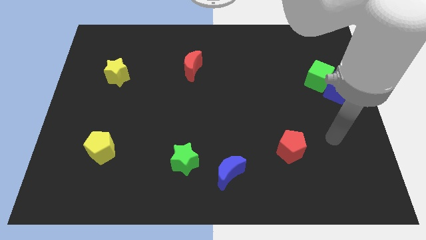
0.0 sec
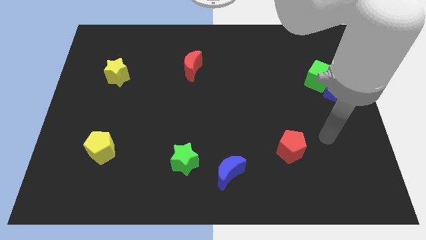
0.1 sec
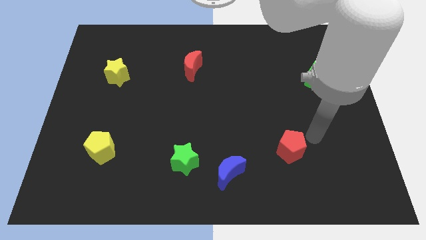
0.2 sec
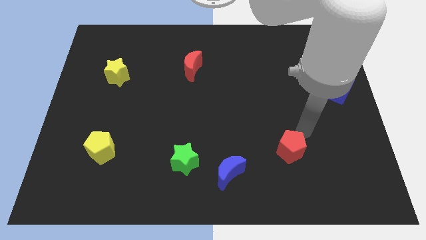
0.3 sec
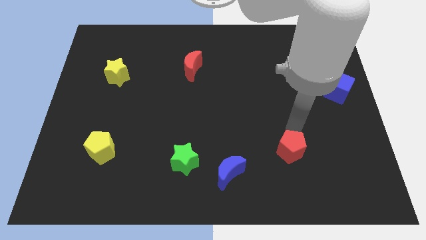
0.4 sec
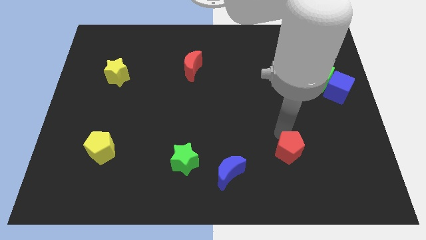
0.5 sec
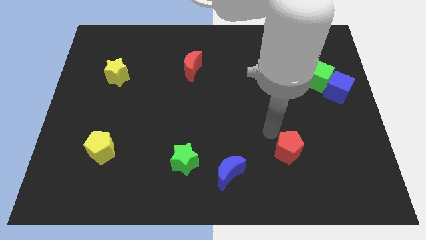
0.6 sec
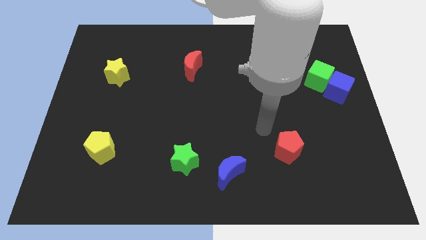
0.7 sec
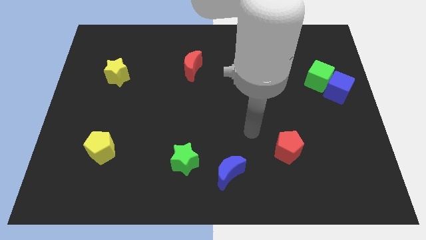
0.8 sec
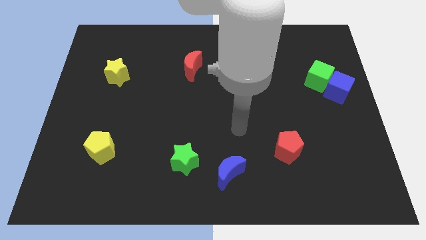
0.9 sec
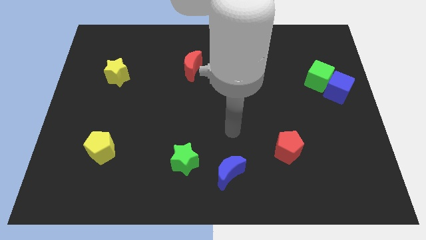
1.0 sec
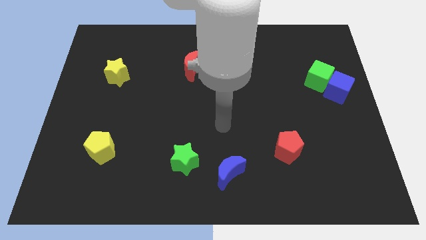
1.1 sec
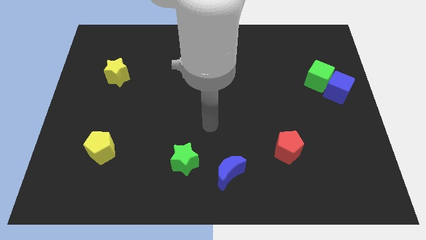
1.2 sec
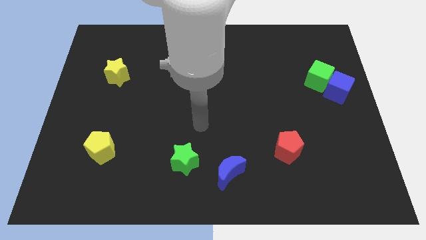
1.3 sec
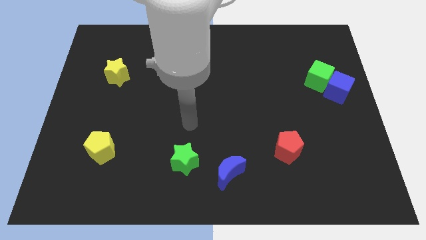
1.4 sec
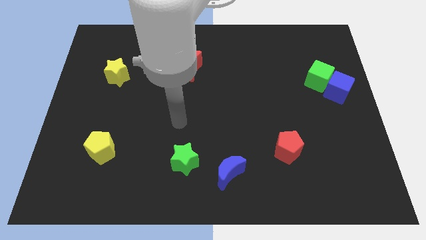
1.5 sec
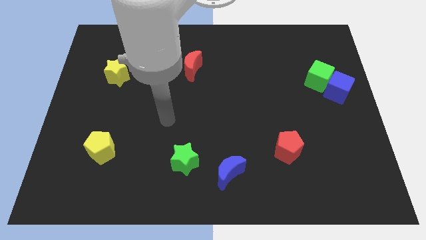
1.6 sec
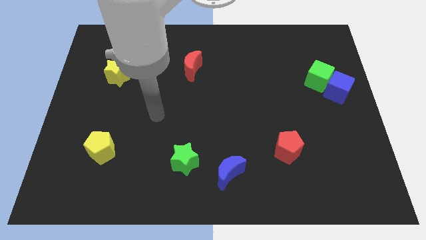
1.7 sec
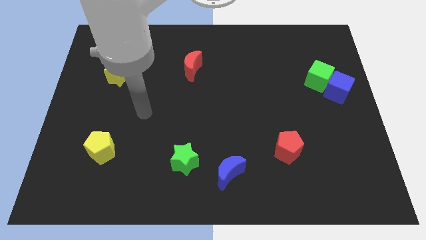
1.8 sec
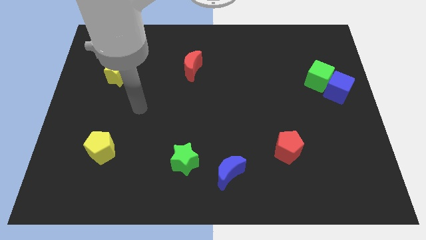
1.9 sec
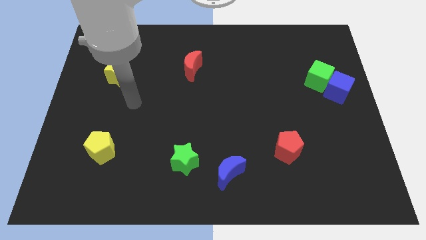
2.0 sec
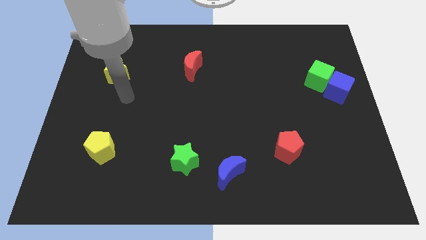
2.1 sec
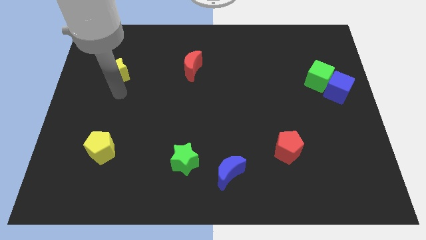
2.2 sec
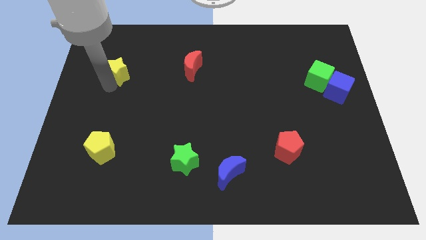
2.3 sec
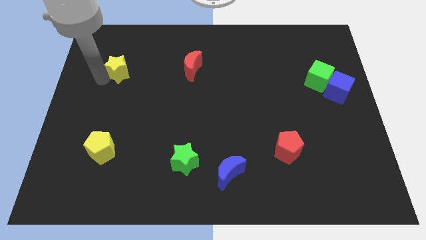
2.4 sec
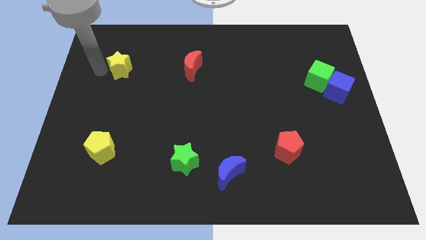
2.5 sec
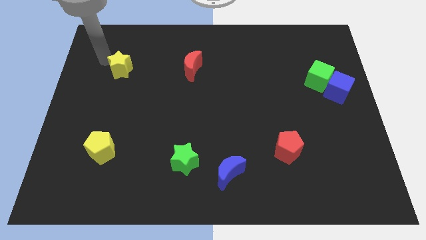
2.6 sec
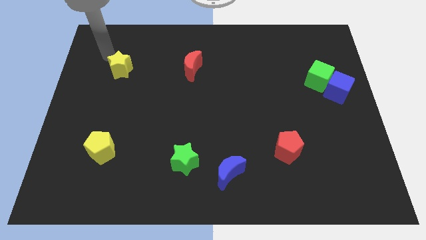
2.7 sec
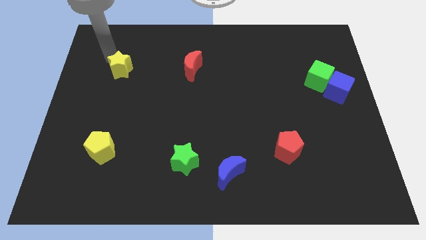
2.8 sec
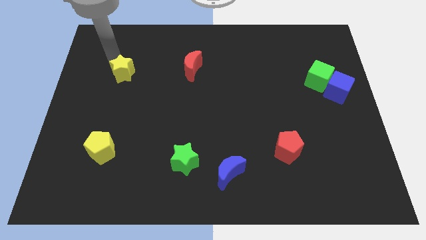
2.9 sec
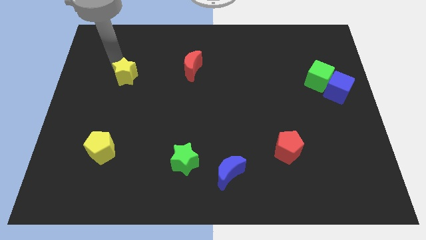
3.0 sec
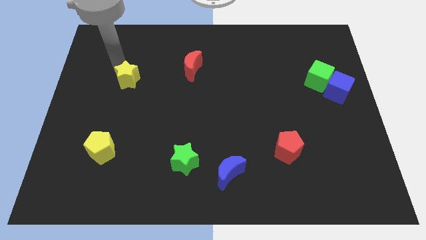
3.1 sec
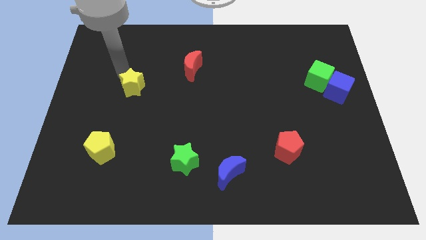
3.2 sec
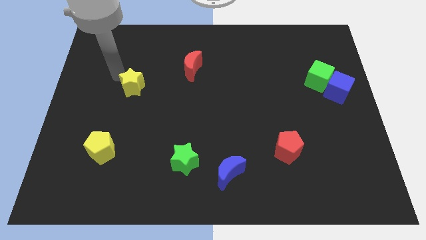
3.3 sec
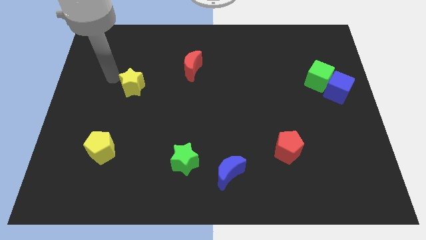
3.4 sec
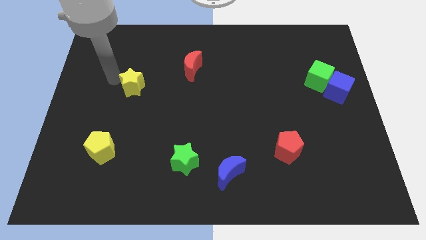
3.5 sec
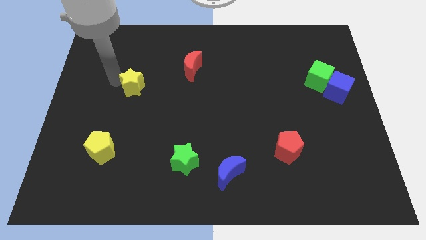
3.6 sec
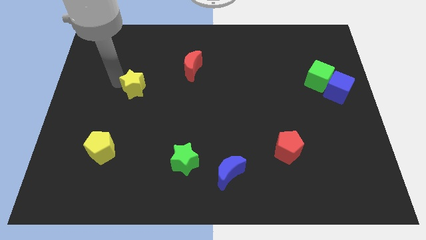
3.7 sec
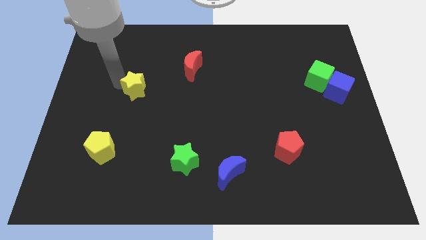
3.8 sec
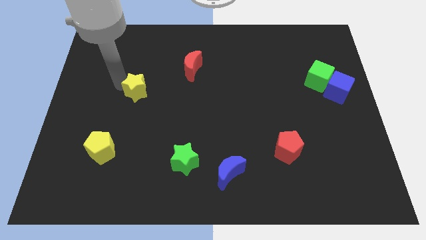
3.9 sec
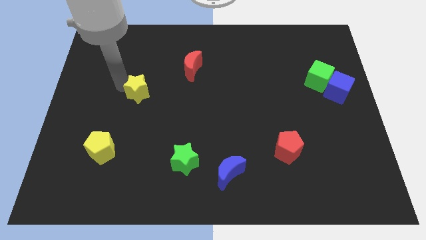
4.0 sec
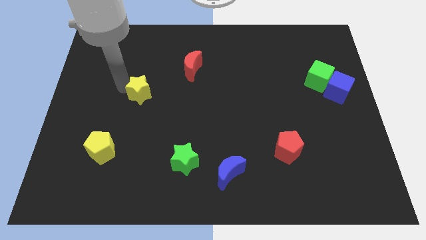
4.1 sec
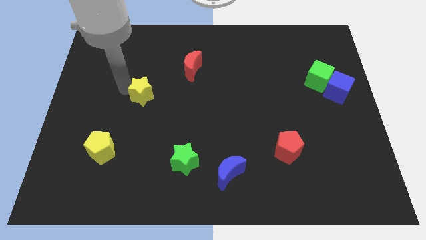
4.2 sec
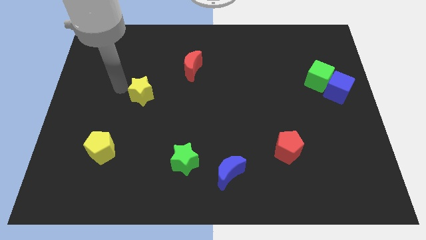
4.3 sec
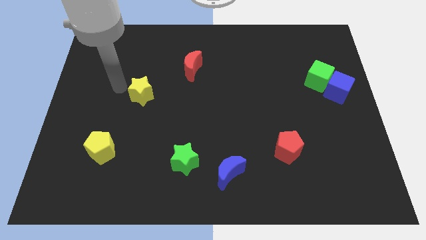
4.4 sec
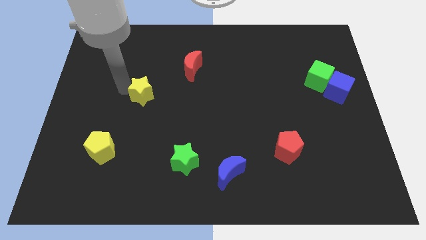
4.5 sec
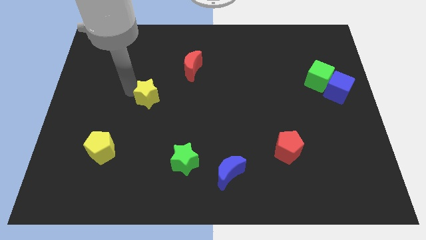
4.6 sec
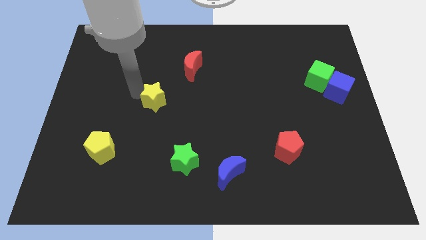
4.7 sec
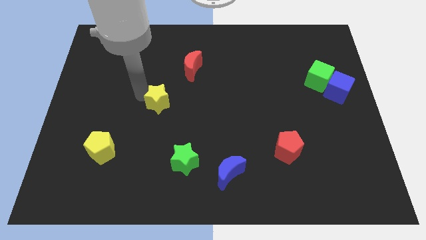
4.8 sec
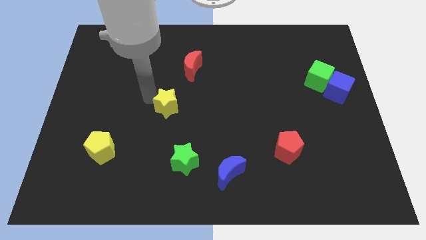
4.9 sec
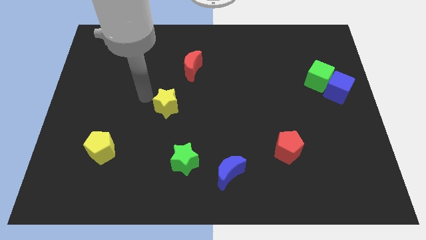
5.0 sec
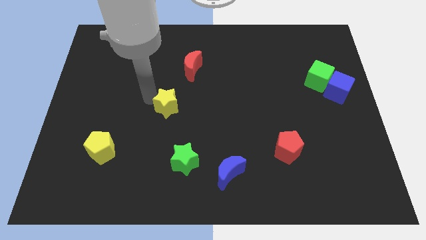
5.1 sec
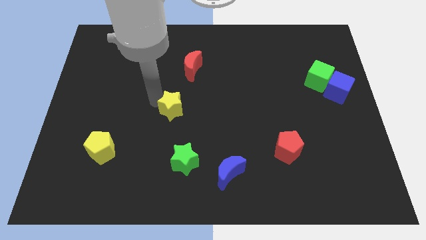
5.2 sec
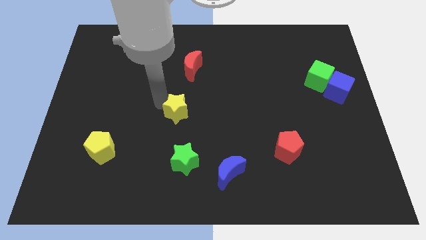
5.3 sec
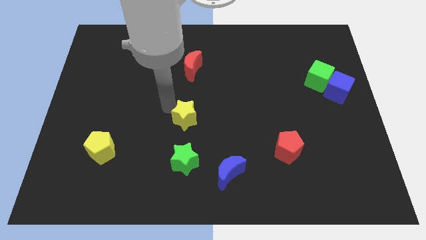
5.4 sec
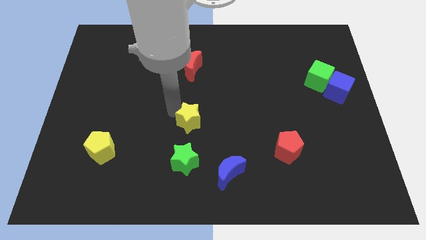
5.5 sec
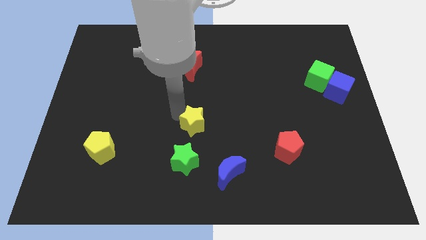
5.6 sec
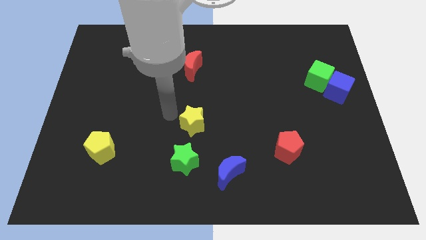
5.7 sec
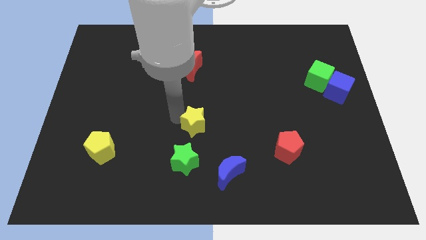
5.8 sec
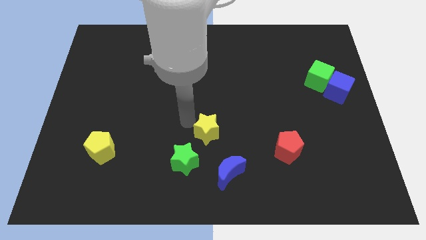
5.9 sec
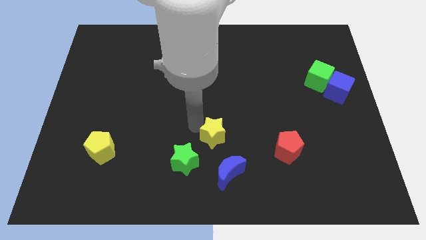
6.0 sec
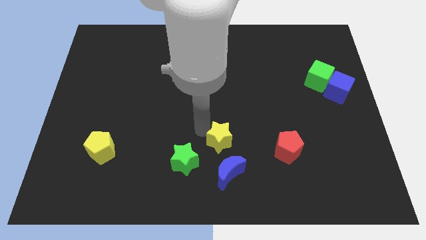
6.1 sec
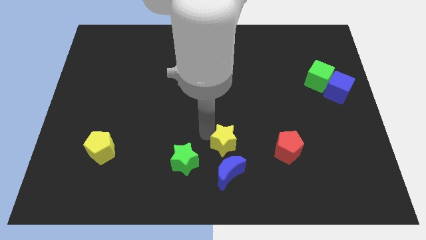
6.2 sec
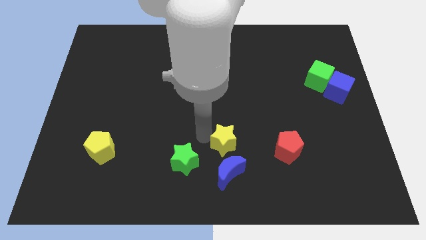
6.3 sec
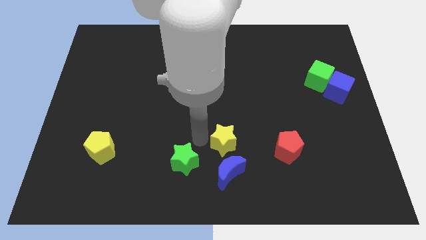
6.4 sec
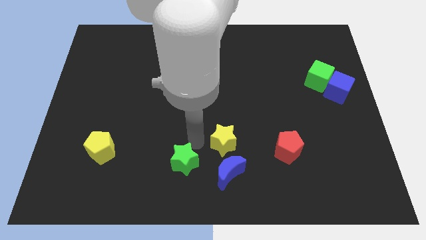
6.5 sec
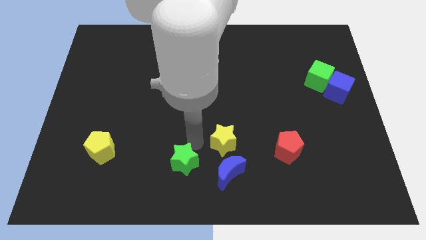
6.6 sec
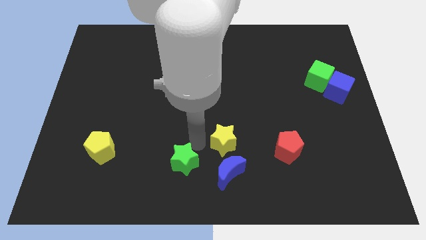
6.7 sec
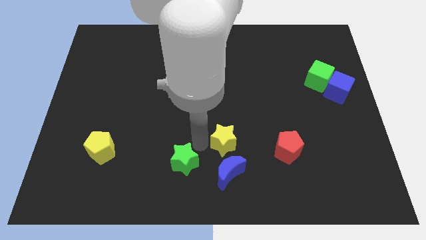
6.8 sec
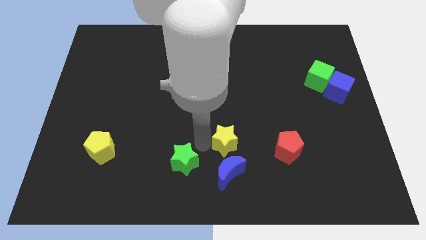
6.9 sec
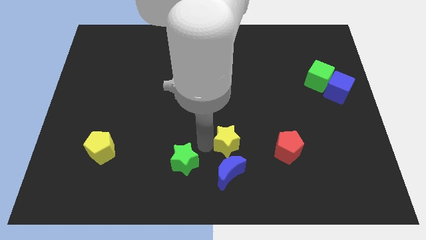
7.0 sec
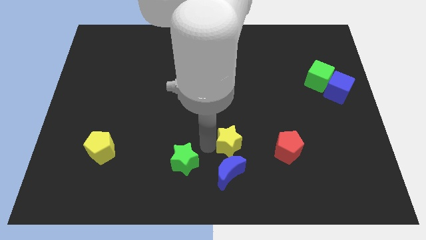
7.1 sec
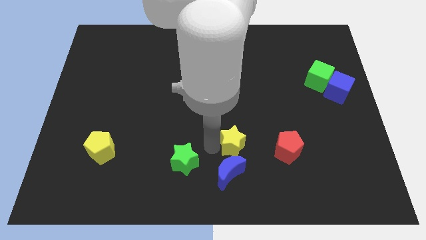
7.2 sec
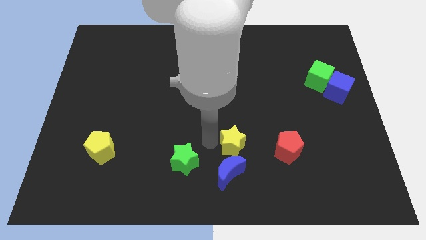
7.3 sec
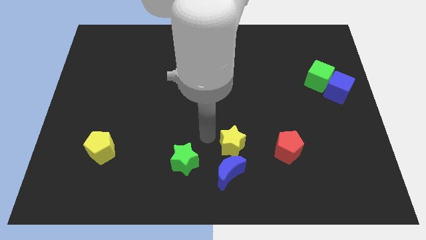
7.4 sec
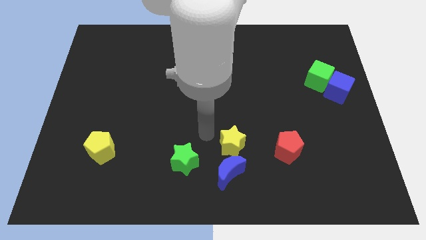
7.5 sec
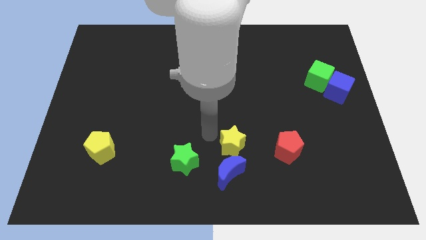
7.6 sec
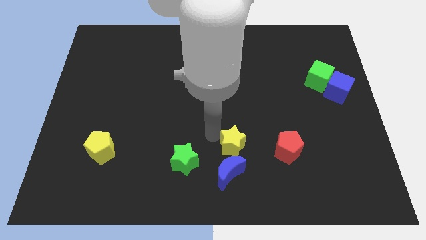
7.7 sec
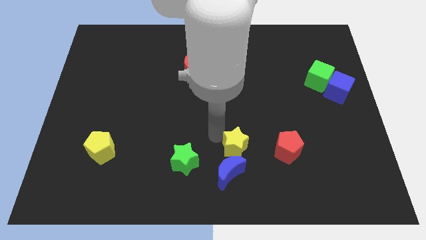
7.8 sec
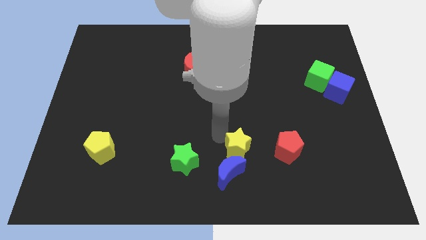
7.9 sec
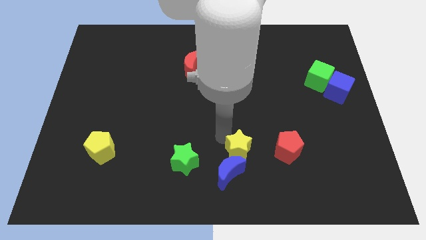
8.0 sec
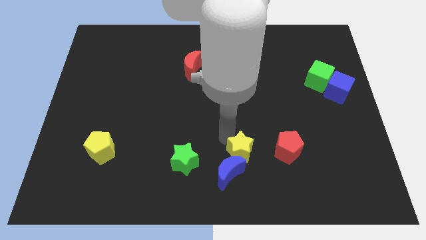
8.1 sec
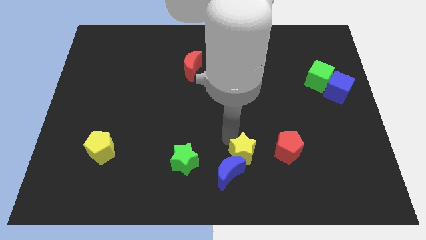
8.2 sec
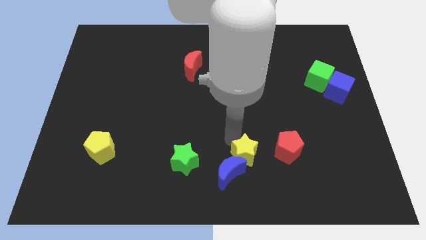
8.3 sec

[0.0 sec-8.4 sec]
push the yellow star to the right side of the blue moon
